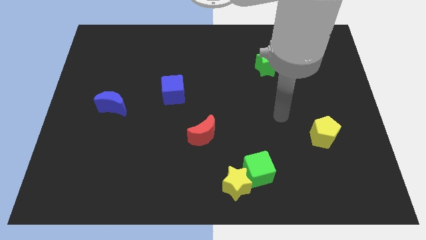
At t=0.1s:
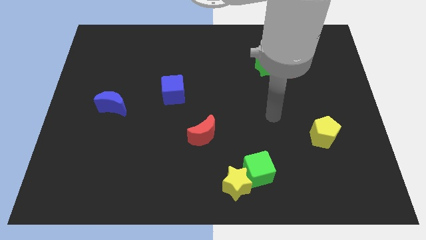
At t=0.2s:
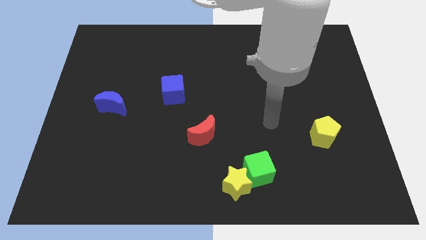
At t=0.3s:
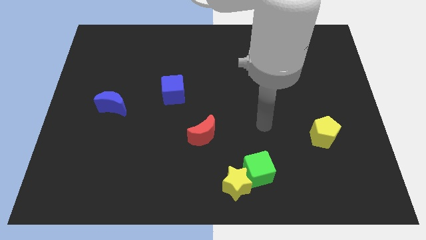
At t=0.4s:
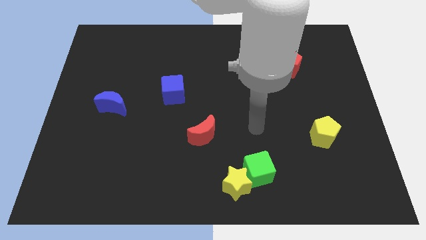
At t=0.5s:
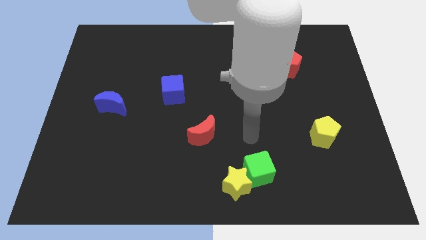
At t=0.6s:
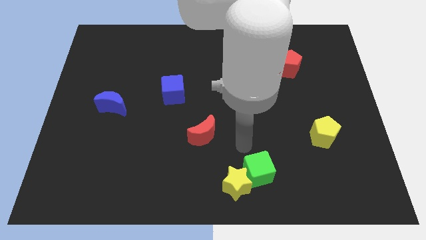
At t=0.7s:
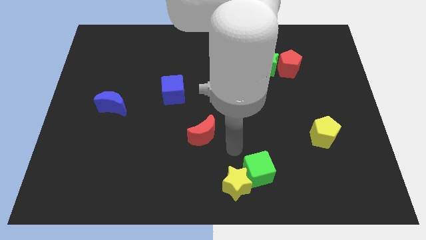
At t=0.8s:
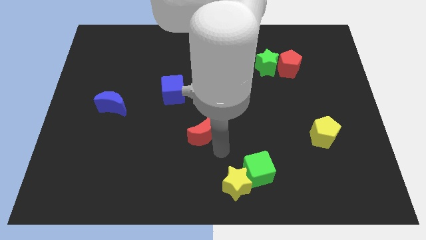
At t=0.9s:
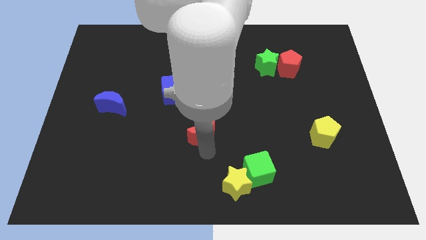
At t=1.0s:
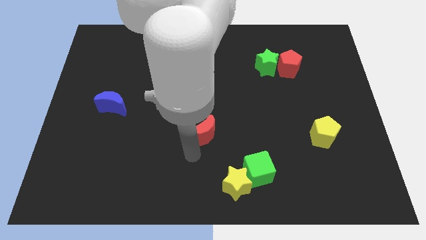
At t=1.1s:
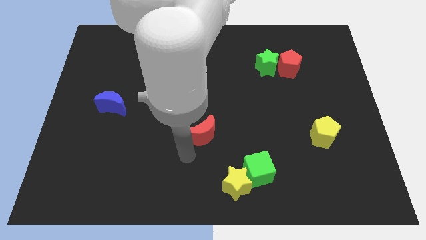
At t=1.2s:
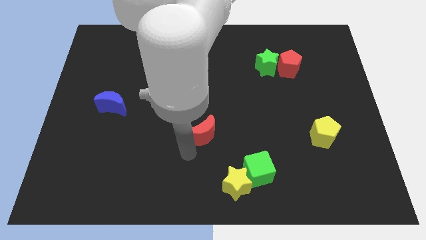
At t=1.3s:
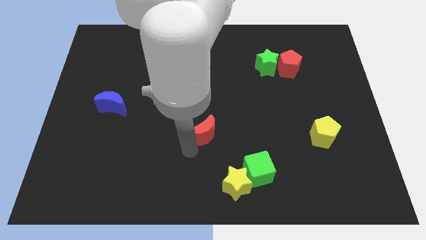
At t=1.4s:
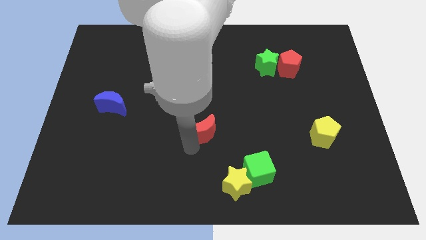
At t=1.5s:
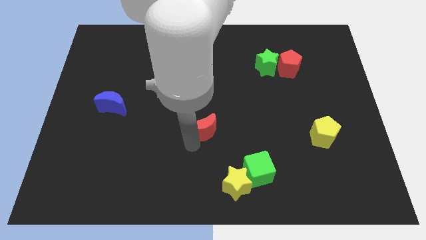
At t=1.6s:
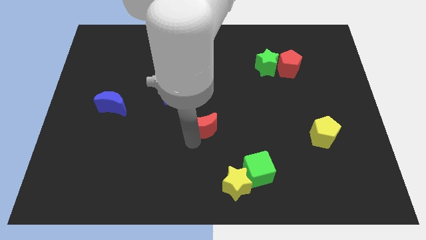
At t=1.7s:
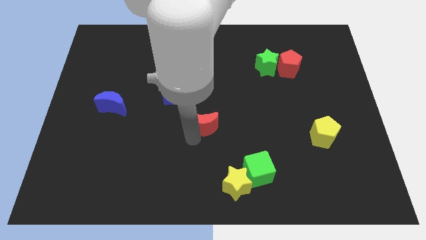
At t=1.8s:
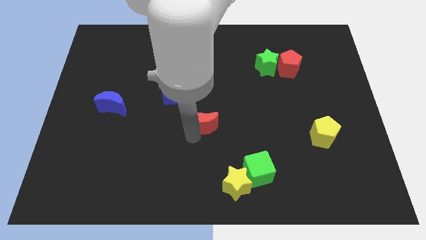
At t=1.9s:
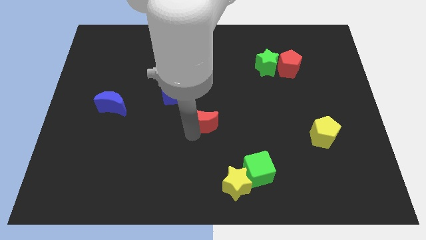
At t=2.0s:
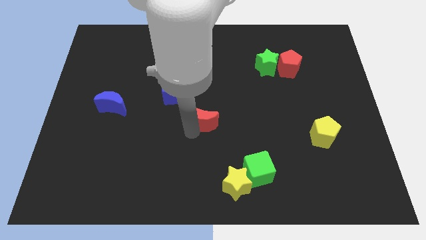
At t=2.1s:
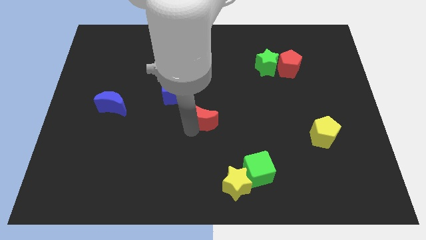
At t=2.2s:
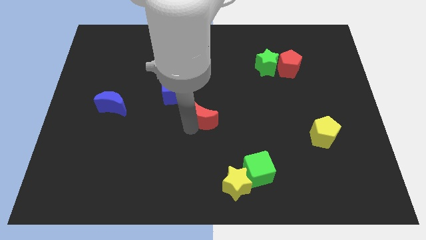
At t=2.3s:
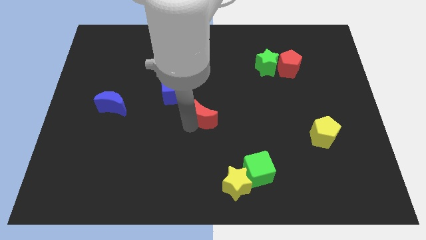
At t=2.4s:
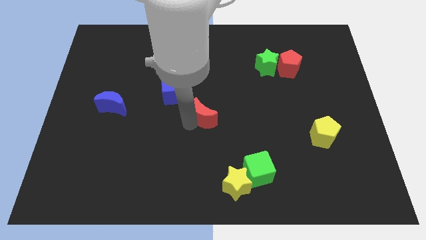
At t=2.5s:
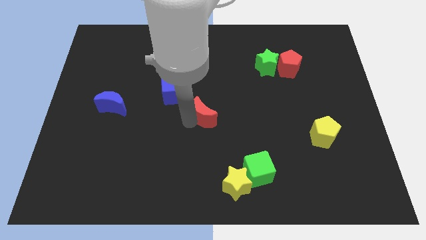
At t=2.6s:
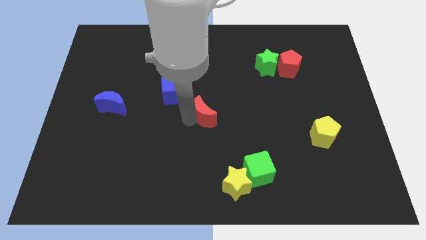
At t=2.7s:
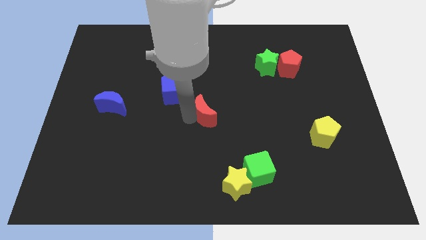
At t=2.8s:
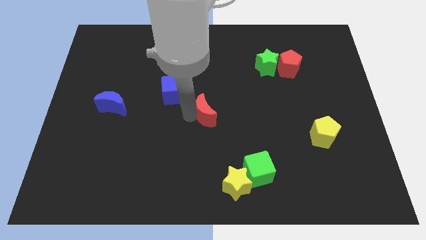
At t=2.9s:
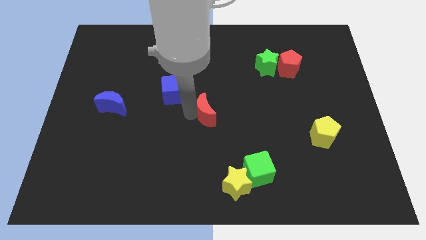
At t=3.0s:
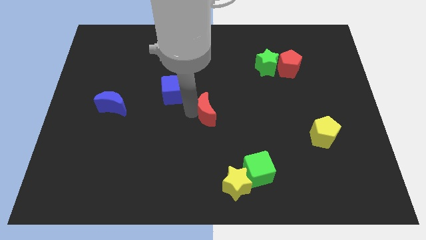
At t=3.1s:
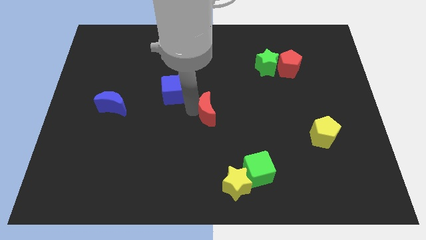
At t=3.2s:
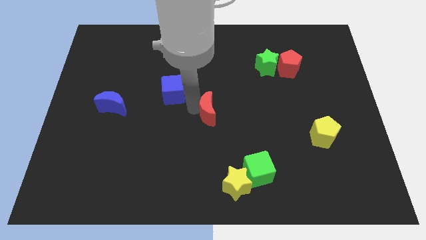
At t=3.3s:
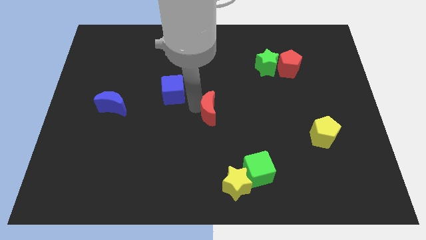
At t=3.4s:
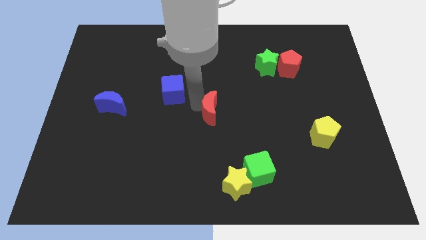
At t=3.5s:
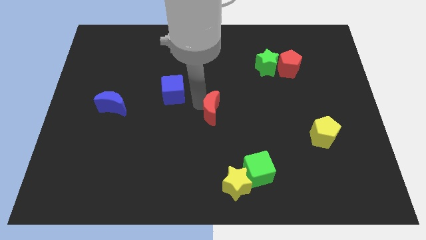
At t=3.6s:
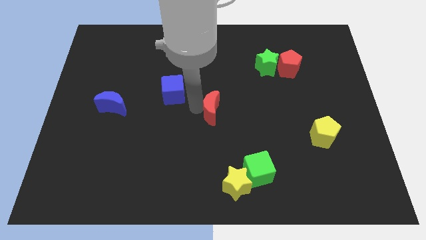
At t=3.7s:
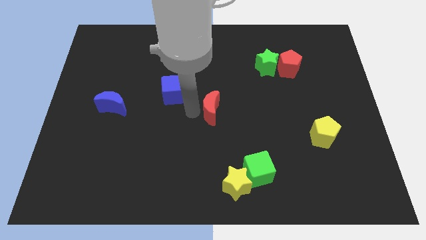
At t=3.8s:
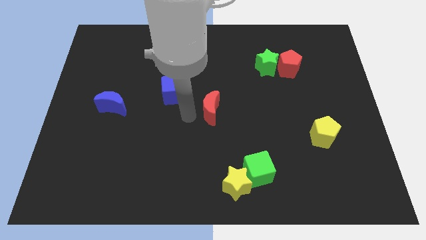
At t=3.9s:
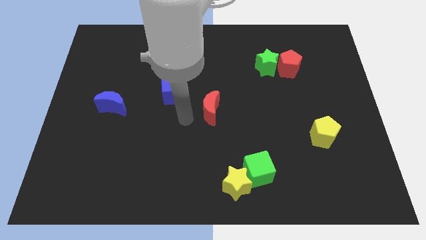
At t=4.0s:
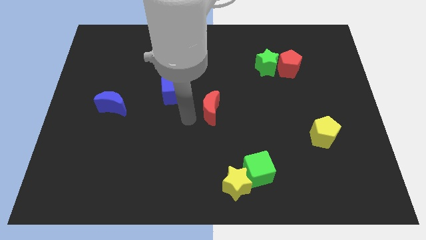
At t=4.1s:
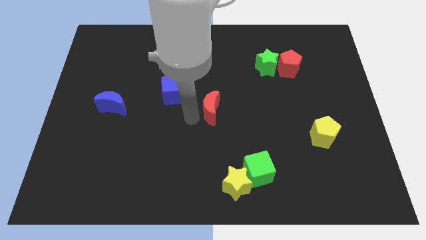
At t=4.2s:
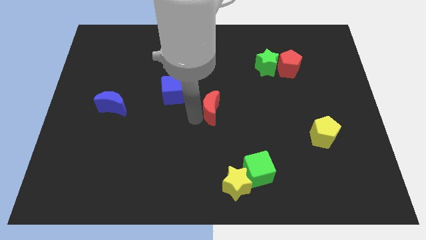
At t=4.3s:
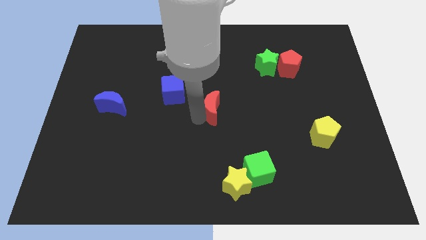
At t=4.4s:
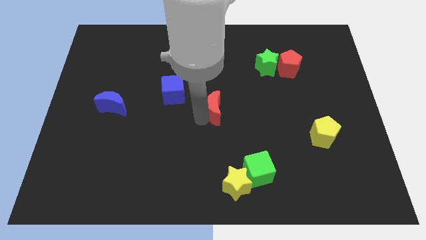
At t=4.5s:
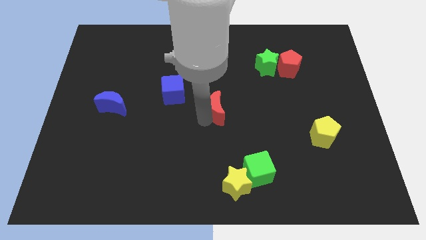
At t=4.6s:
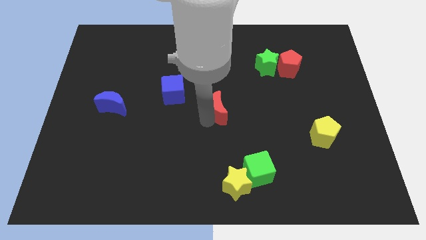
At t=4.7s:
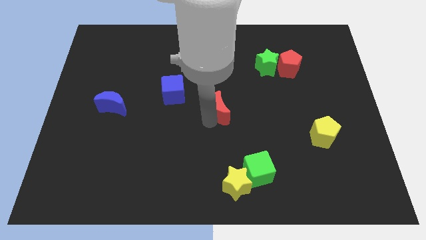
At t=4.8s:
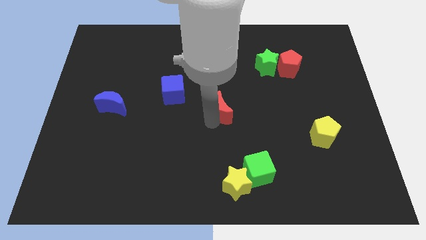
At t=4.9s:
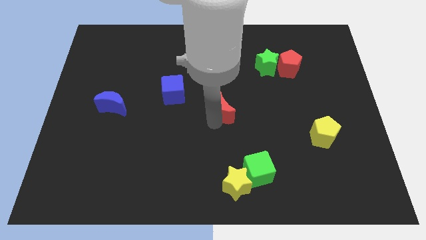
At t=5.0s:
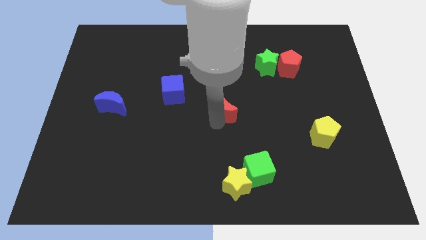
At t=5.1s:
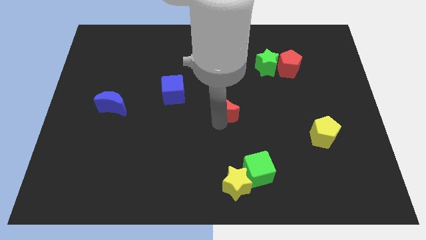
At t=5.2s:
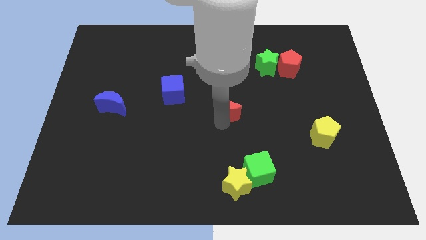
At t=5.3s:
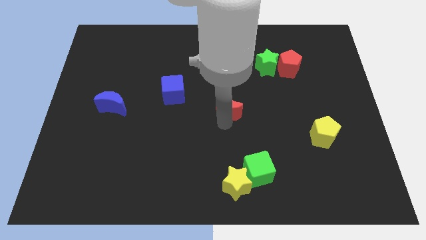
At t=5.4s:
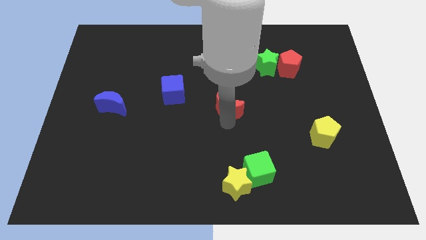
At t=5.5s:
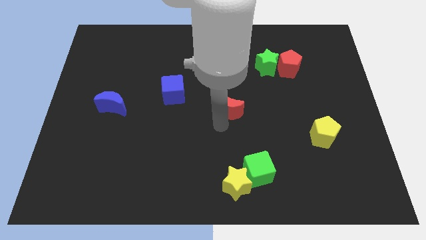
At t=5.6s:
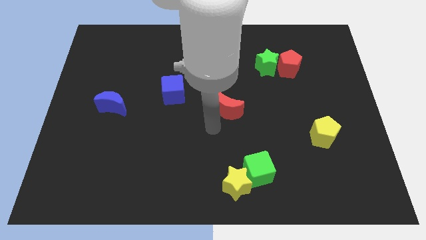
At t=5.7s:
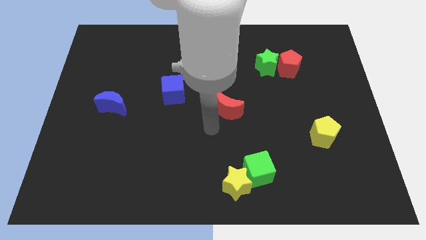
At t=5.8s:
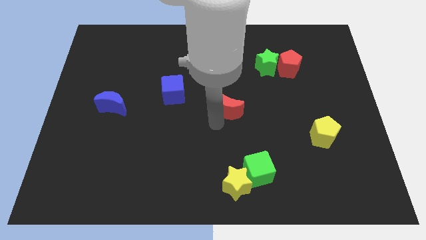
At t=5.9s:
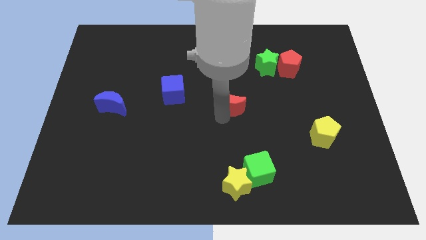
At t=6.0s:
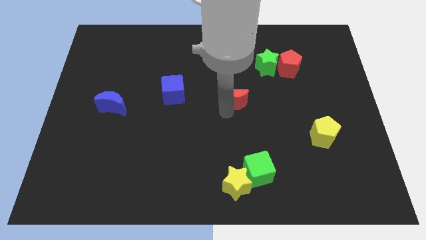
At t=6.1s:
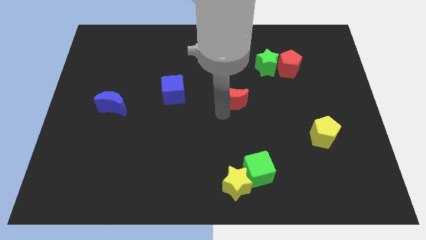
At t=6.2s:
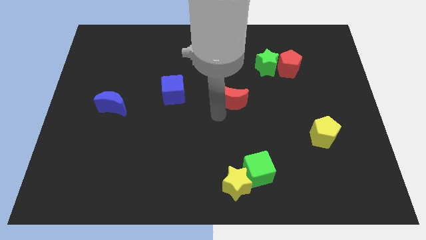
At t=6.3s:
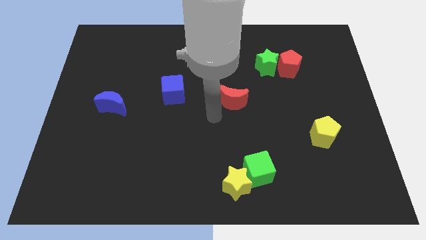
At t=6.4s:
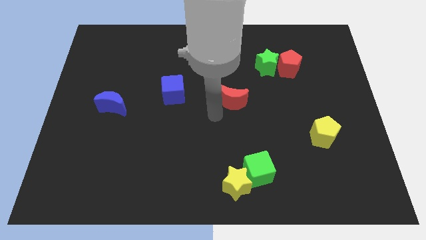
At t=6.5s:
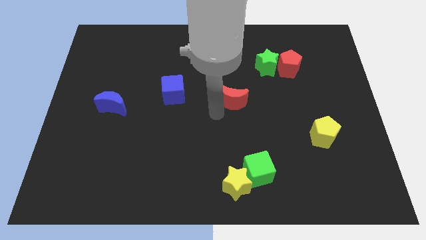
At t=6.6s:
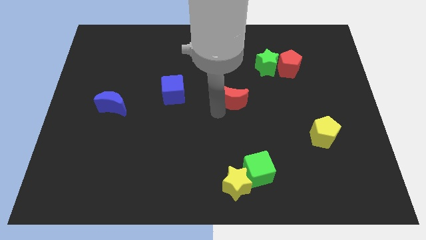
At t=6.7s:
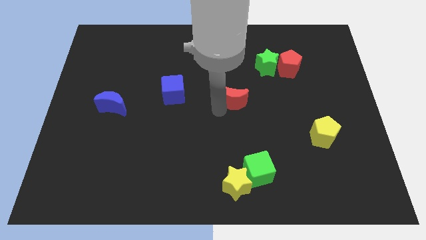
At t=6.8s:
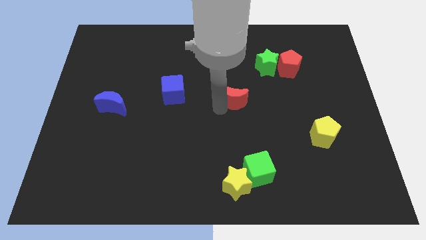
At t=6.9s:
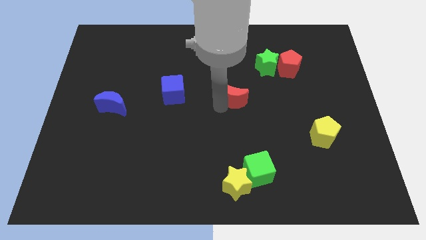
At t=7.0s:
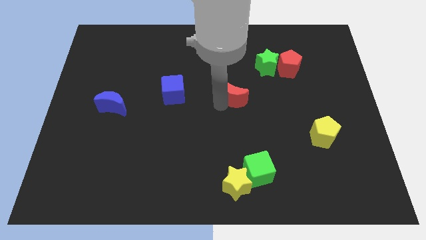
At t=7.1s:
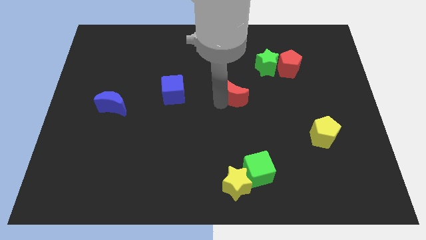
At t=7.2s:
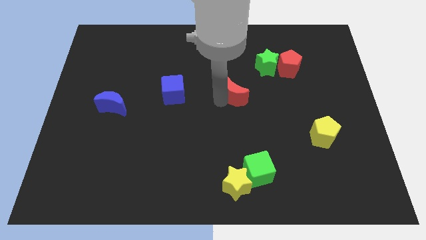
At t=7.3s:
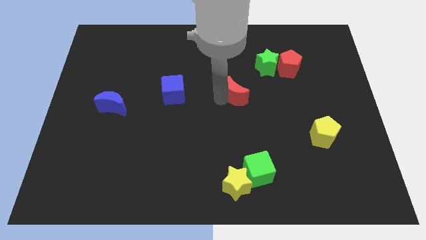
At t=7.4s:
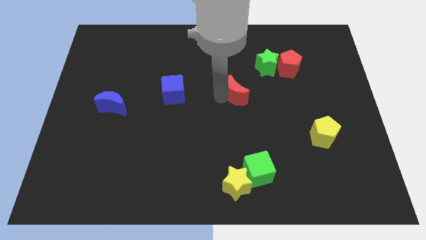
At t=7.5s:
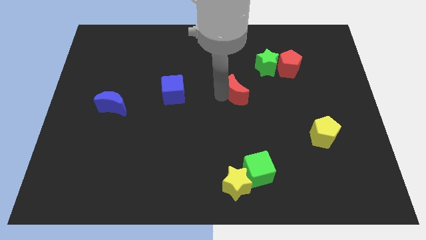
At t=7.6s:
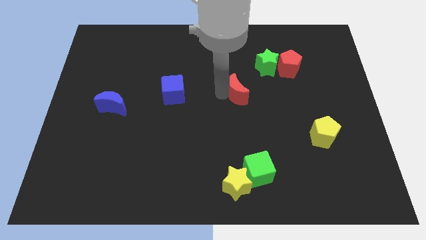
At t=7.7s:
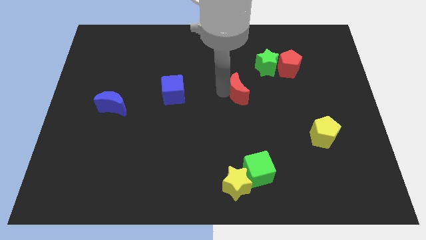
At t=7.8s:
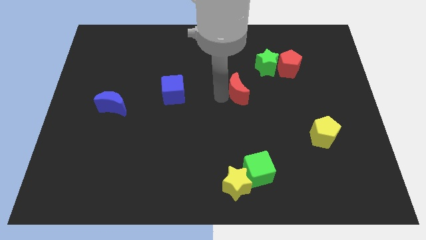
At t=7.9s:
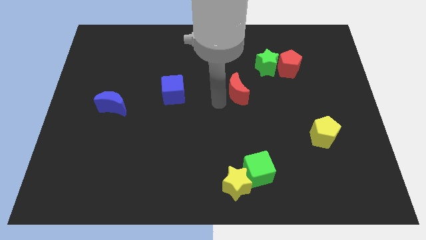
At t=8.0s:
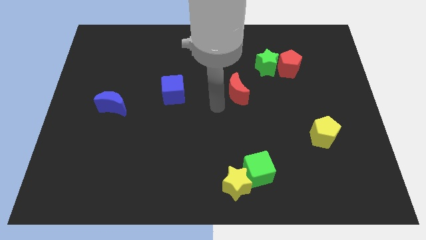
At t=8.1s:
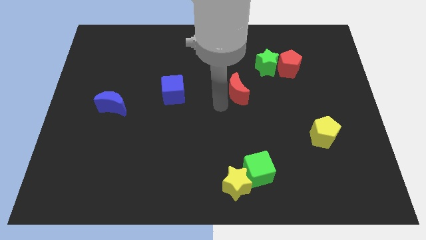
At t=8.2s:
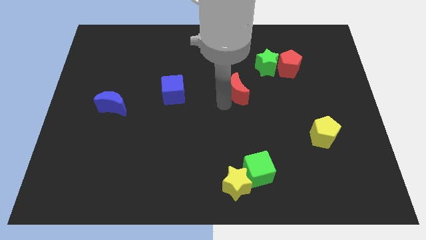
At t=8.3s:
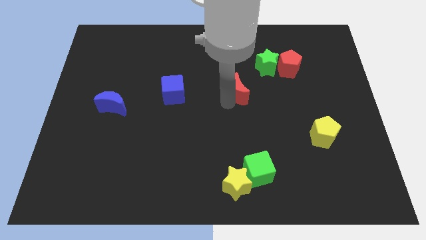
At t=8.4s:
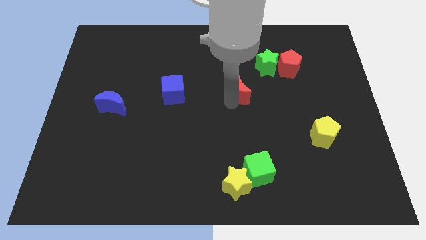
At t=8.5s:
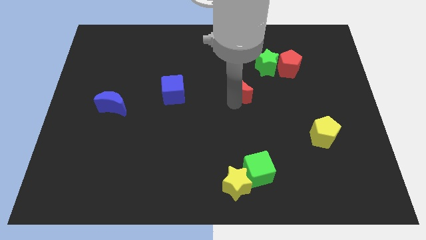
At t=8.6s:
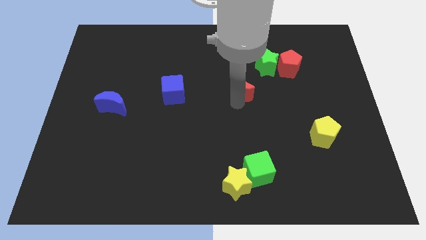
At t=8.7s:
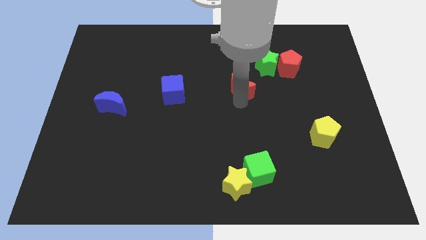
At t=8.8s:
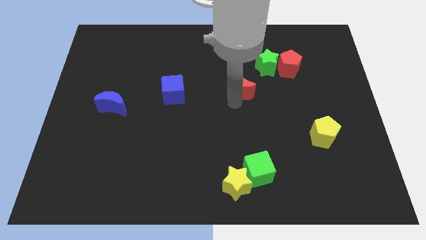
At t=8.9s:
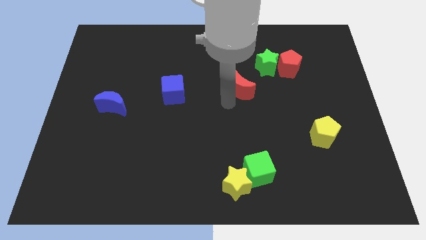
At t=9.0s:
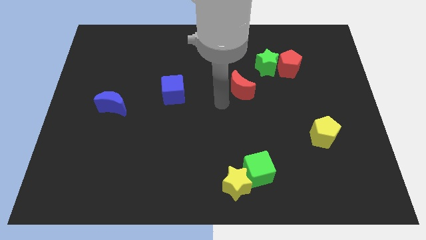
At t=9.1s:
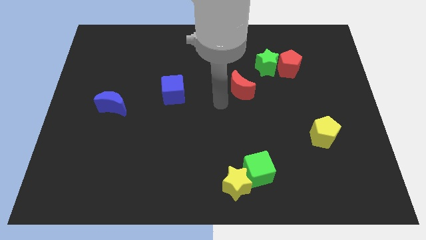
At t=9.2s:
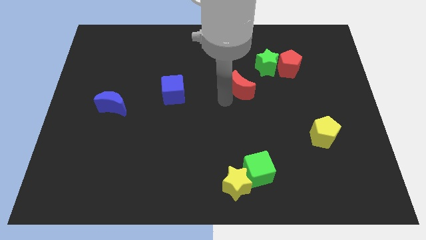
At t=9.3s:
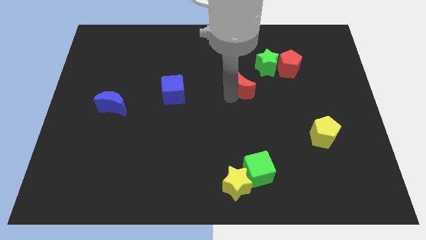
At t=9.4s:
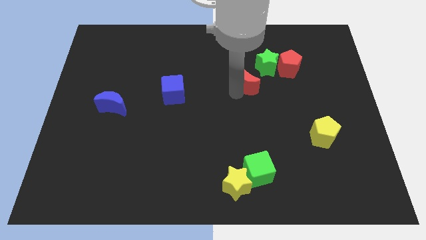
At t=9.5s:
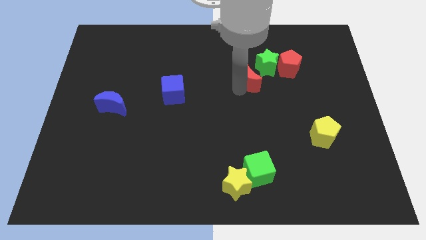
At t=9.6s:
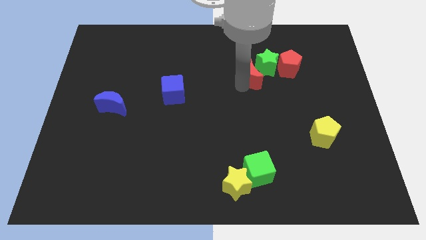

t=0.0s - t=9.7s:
slide the red moon next to the green star
